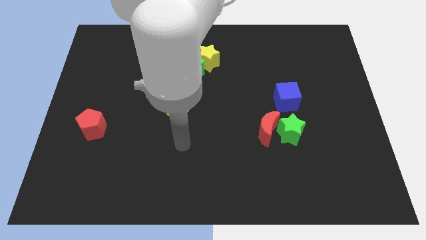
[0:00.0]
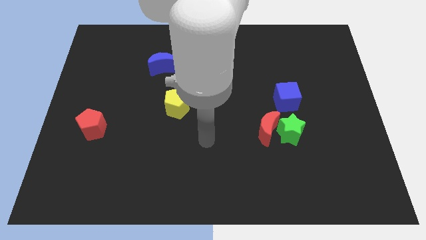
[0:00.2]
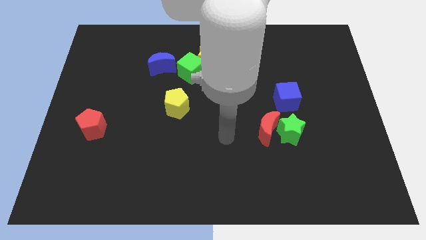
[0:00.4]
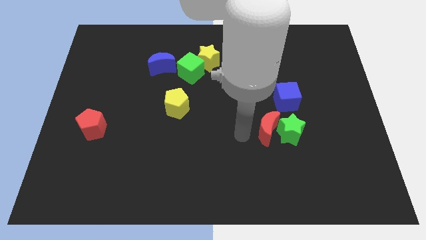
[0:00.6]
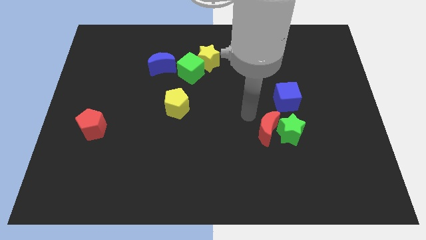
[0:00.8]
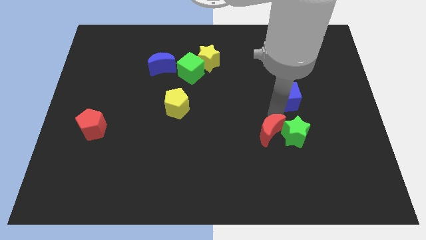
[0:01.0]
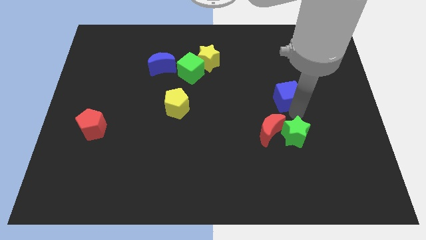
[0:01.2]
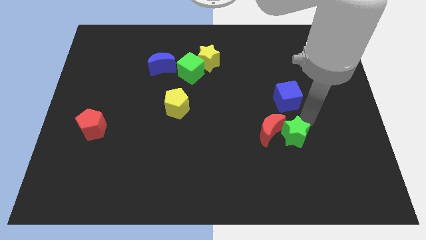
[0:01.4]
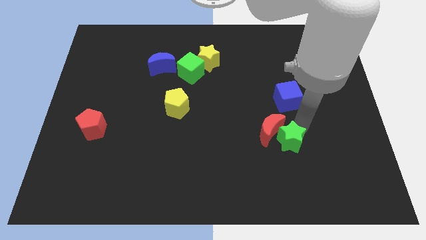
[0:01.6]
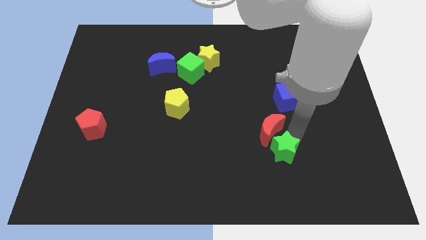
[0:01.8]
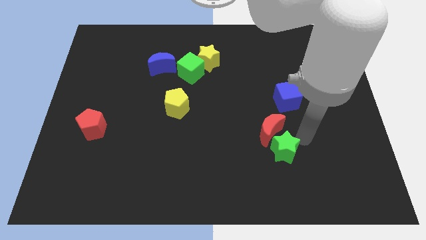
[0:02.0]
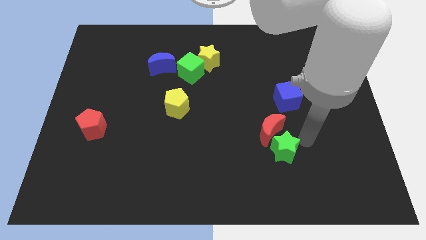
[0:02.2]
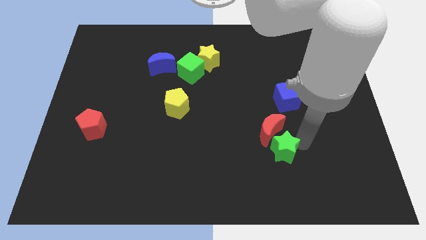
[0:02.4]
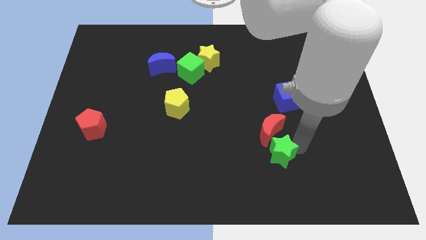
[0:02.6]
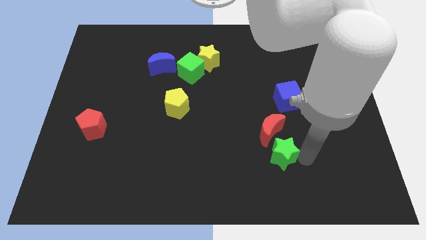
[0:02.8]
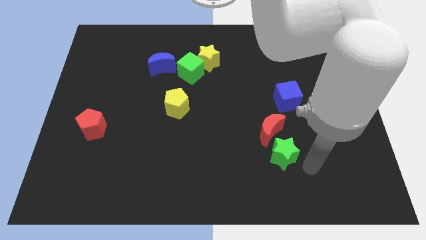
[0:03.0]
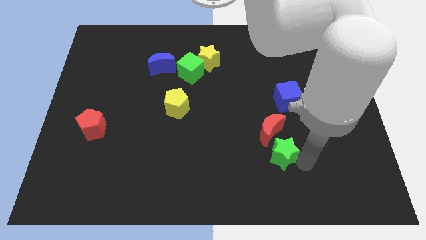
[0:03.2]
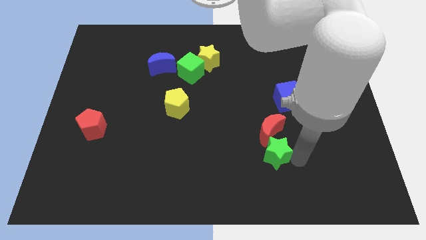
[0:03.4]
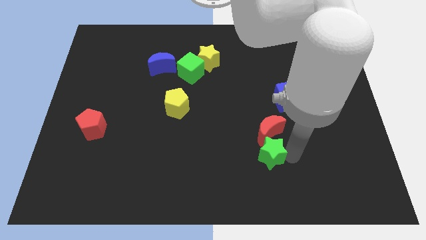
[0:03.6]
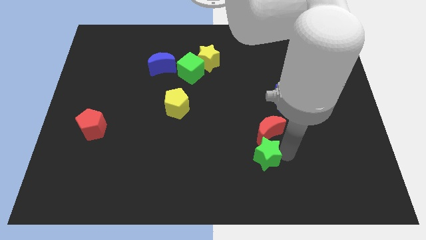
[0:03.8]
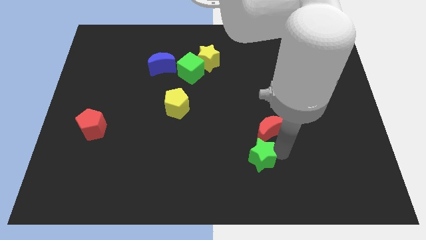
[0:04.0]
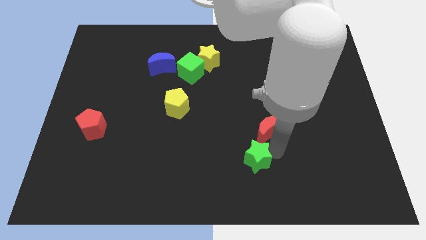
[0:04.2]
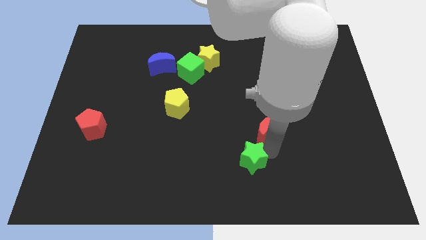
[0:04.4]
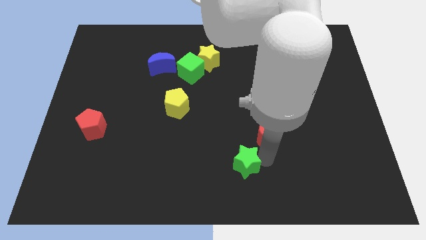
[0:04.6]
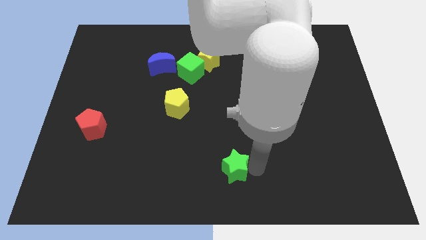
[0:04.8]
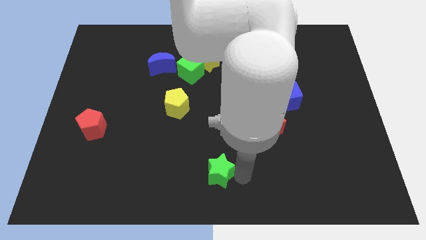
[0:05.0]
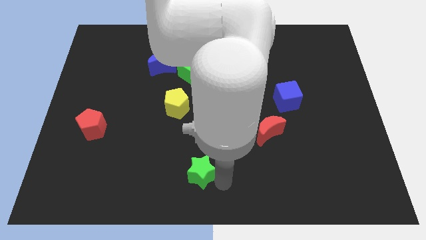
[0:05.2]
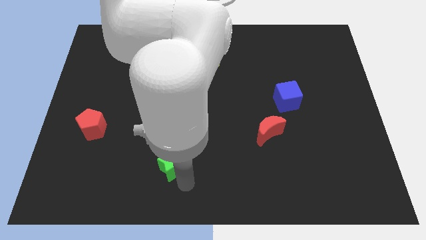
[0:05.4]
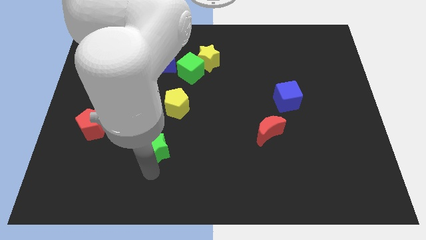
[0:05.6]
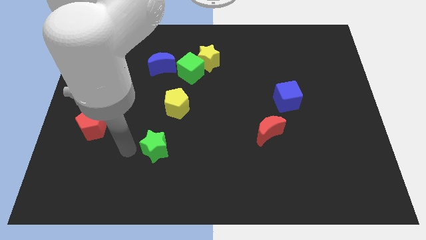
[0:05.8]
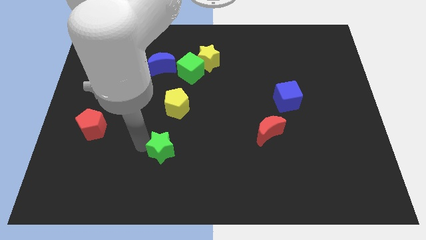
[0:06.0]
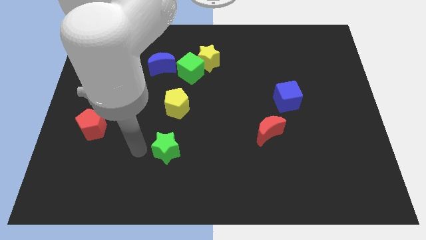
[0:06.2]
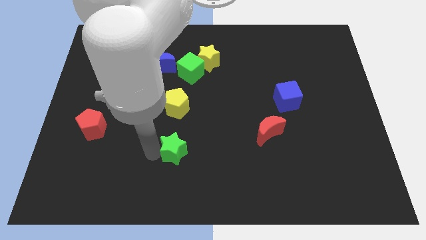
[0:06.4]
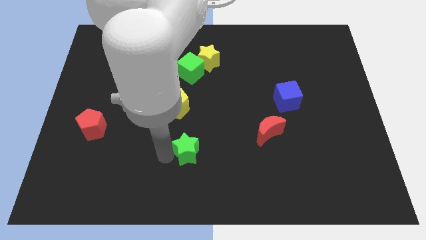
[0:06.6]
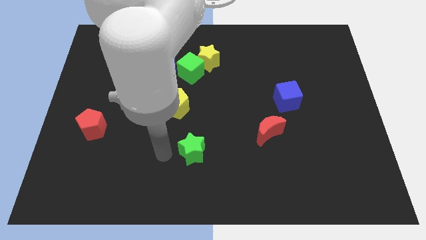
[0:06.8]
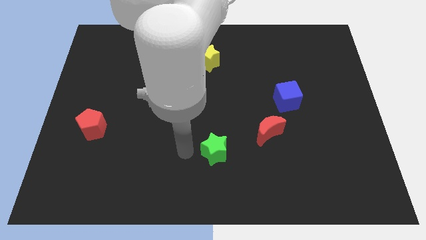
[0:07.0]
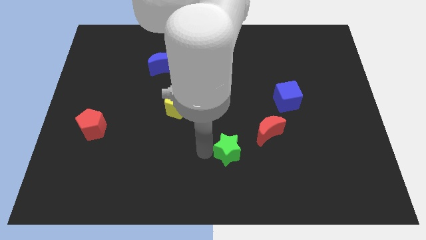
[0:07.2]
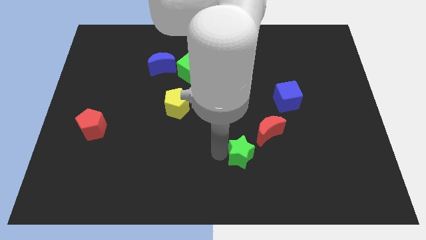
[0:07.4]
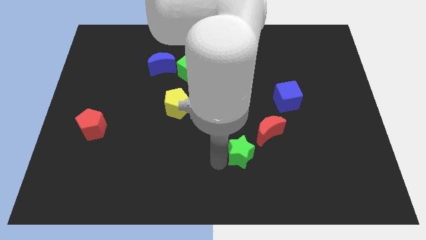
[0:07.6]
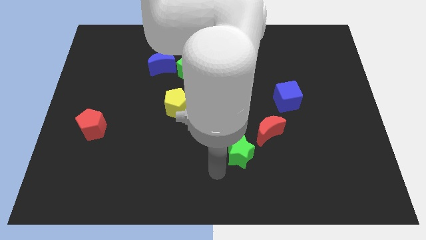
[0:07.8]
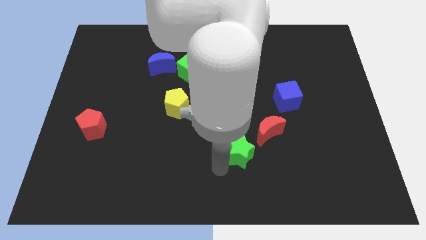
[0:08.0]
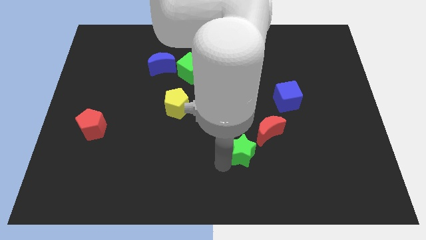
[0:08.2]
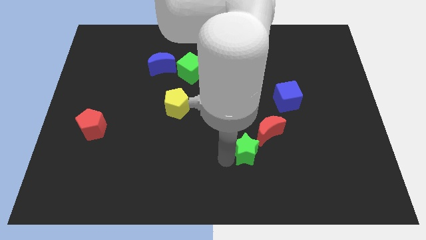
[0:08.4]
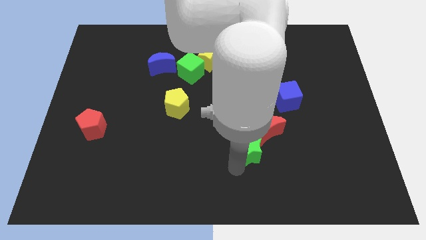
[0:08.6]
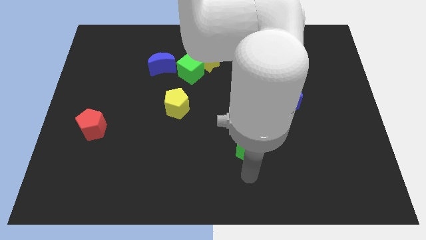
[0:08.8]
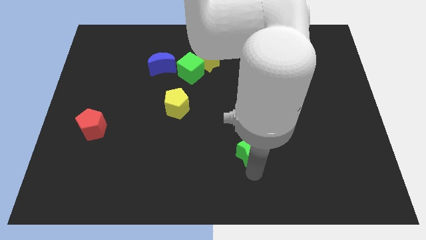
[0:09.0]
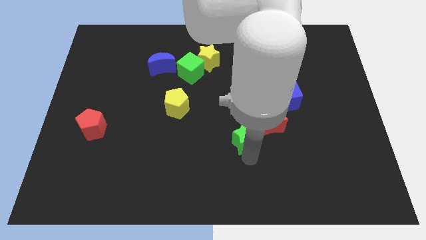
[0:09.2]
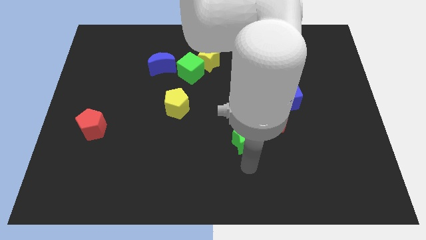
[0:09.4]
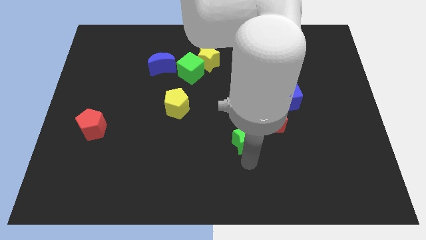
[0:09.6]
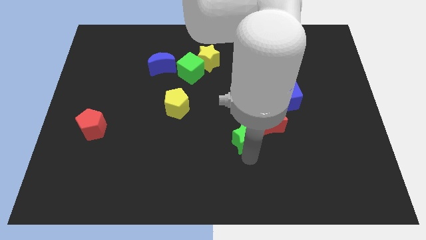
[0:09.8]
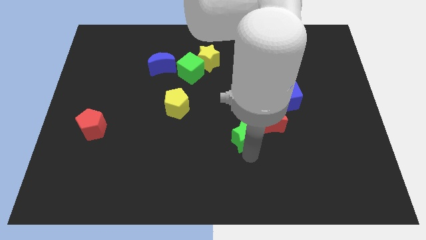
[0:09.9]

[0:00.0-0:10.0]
push the green star to the center of the board

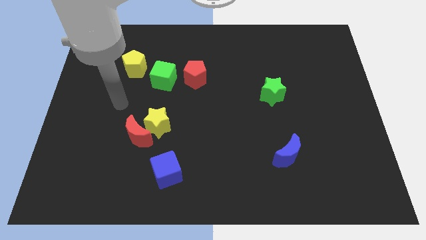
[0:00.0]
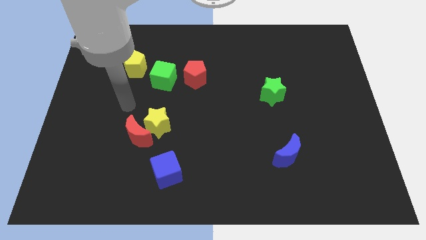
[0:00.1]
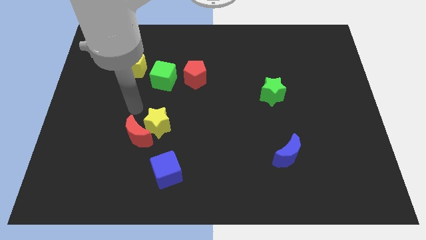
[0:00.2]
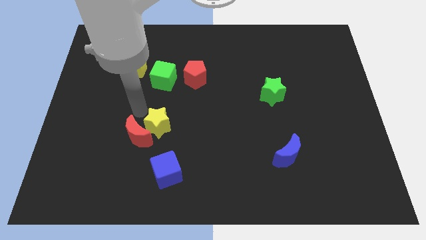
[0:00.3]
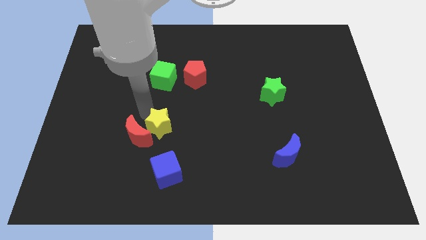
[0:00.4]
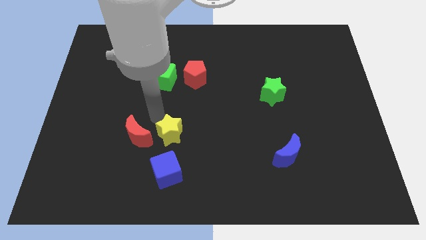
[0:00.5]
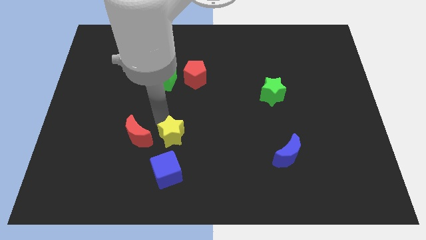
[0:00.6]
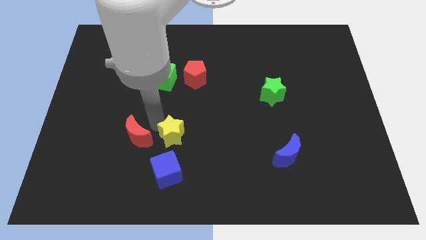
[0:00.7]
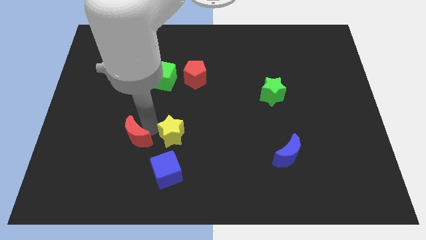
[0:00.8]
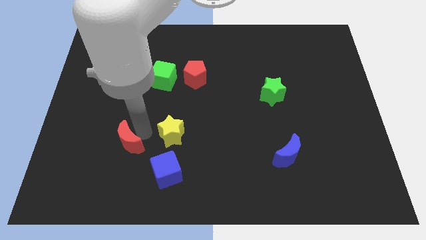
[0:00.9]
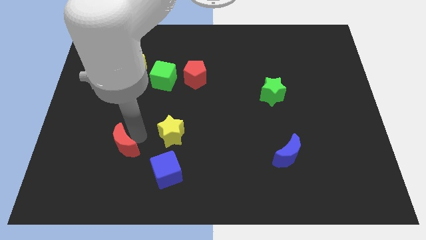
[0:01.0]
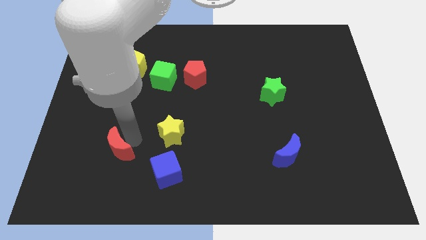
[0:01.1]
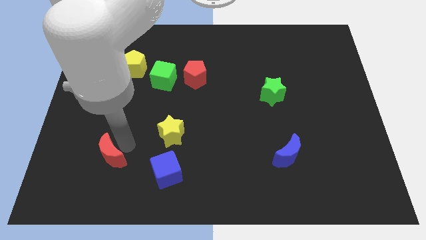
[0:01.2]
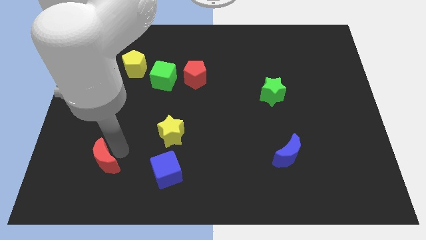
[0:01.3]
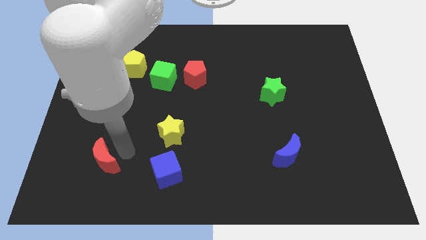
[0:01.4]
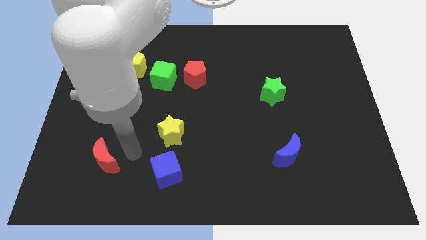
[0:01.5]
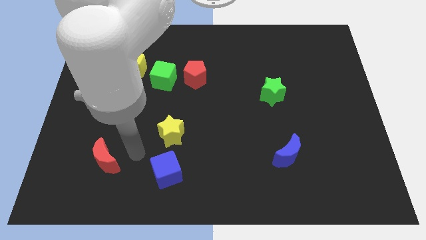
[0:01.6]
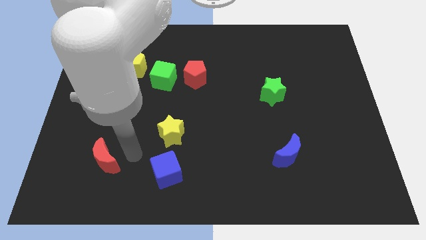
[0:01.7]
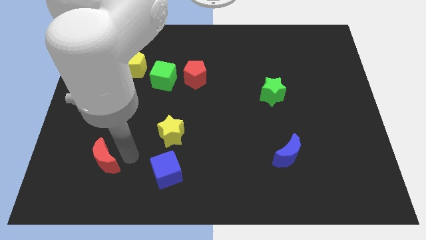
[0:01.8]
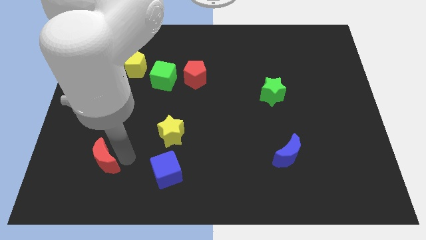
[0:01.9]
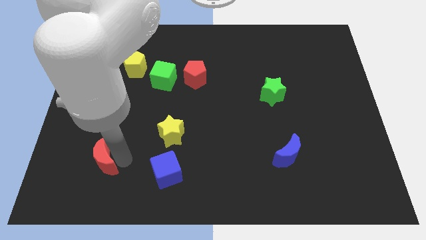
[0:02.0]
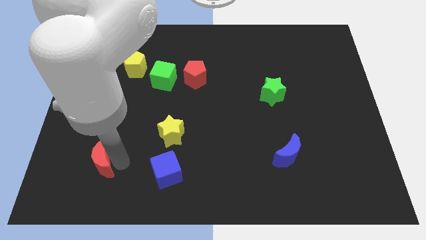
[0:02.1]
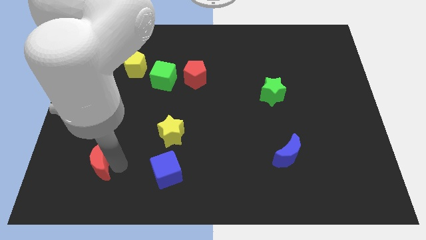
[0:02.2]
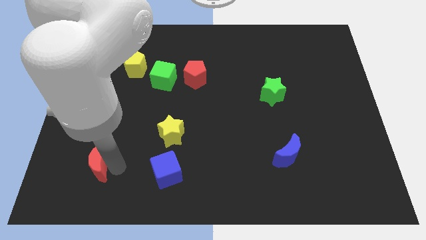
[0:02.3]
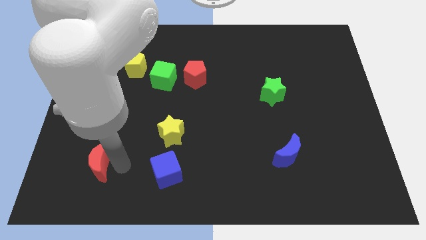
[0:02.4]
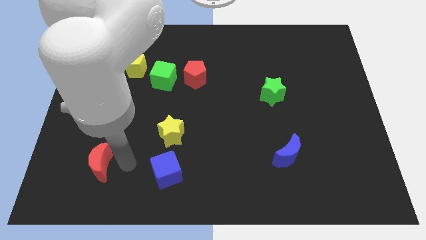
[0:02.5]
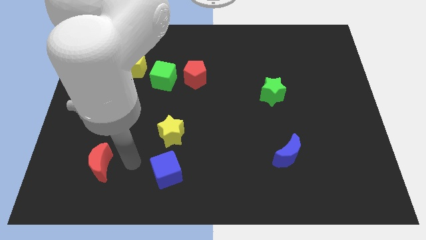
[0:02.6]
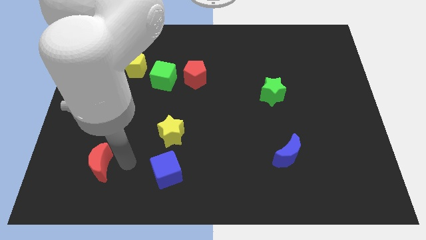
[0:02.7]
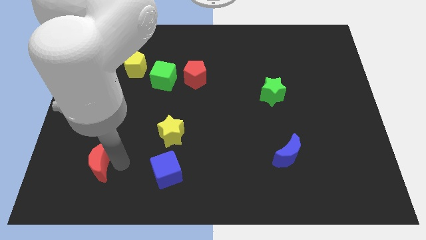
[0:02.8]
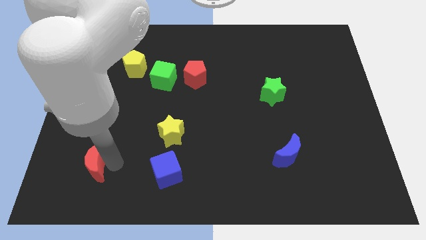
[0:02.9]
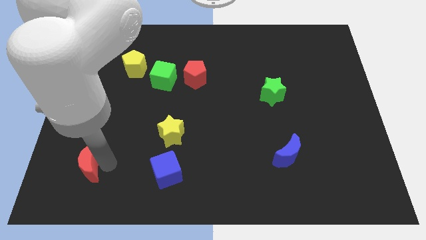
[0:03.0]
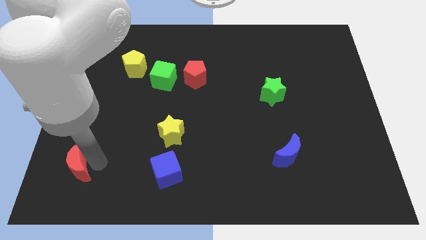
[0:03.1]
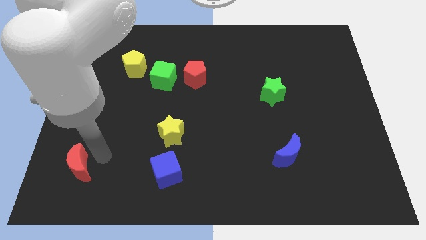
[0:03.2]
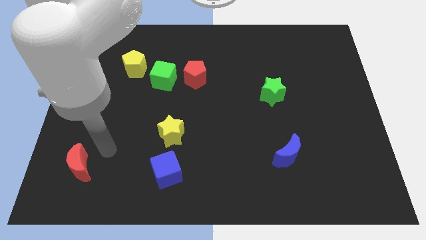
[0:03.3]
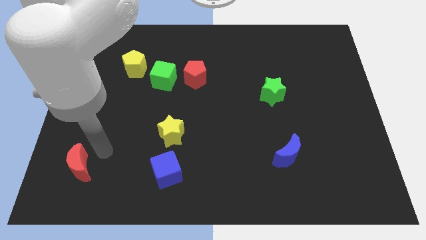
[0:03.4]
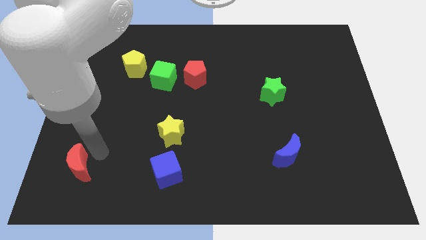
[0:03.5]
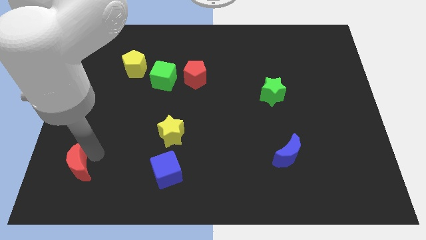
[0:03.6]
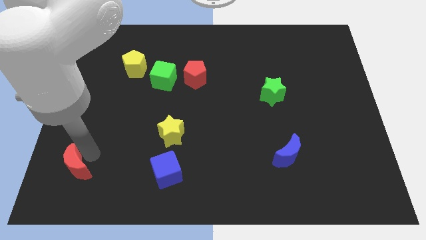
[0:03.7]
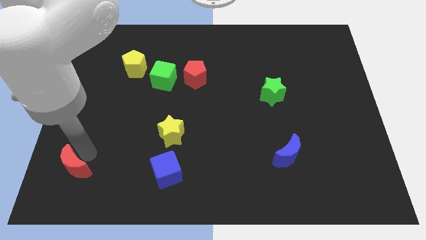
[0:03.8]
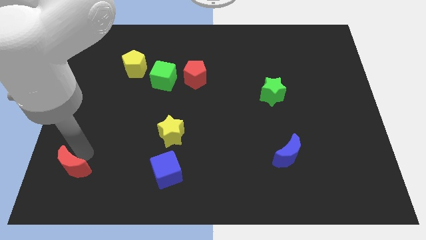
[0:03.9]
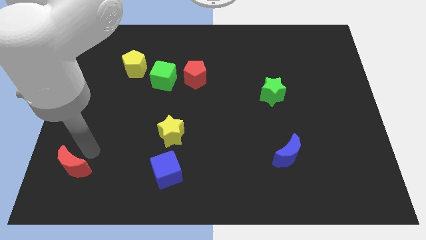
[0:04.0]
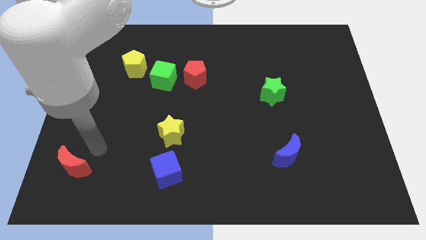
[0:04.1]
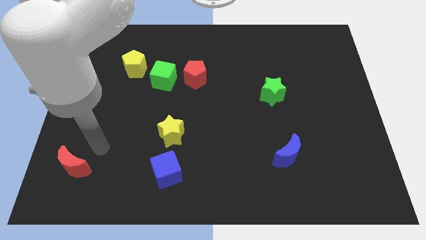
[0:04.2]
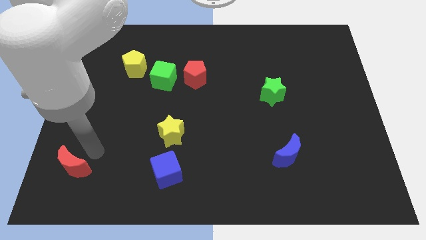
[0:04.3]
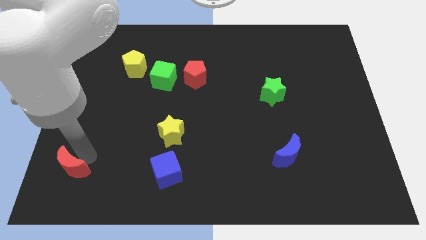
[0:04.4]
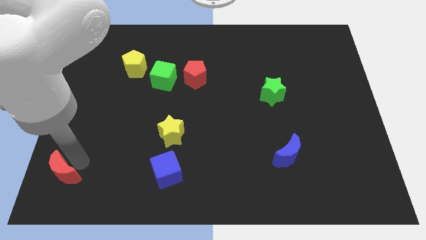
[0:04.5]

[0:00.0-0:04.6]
push the red moon to the lower left corner
